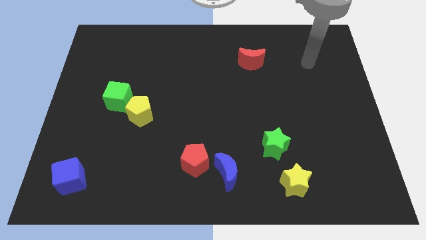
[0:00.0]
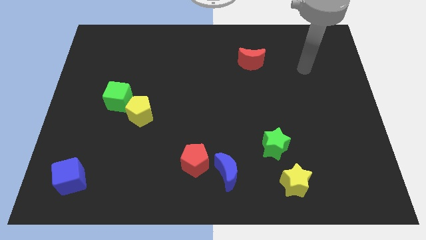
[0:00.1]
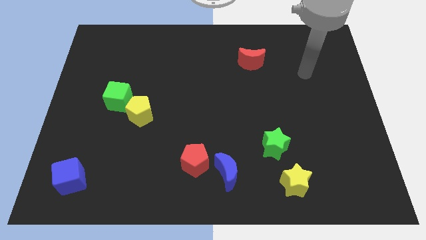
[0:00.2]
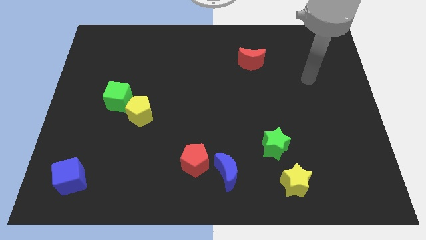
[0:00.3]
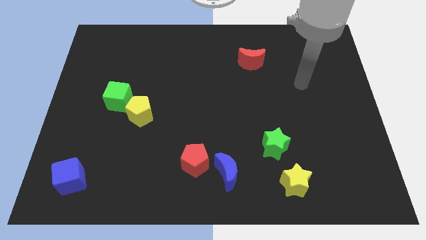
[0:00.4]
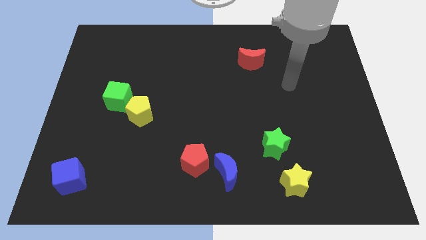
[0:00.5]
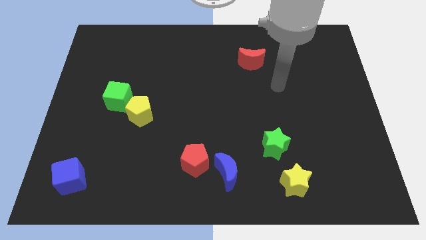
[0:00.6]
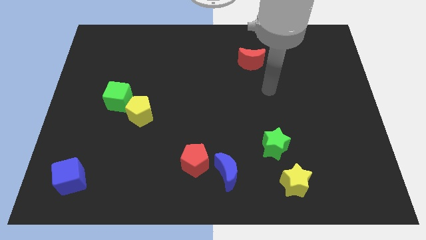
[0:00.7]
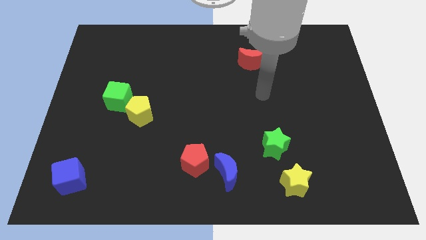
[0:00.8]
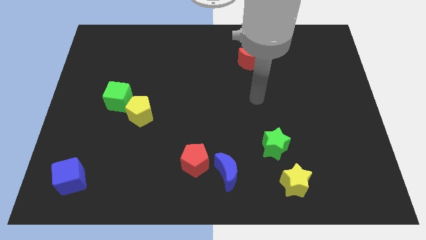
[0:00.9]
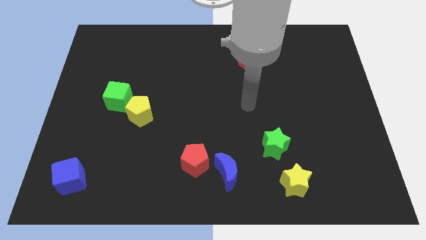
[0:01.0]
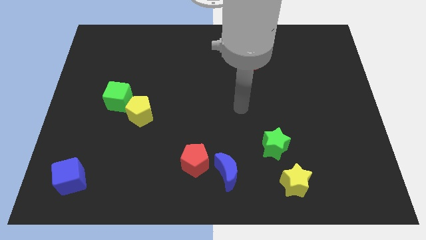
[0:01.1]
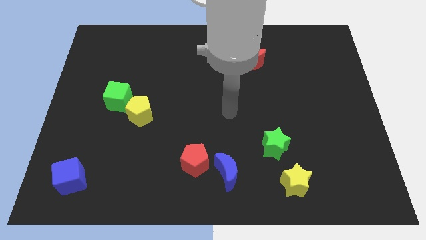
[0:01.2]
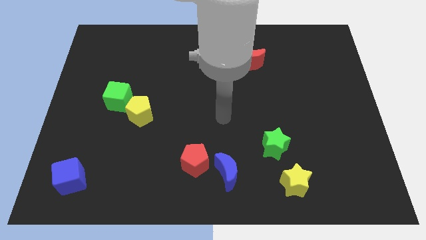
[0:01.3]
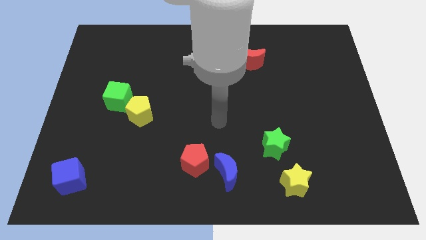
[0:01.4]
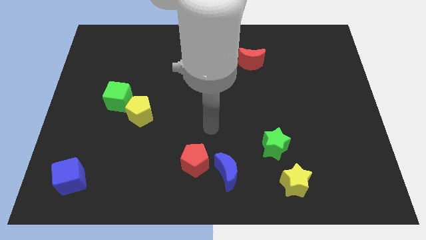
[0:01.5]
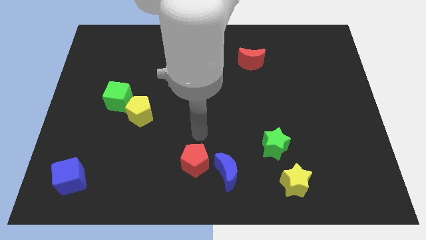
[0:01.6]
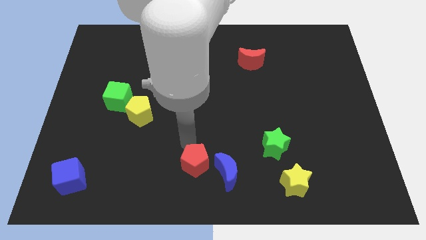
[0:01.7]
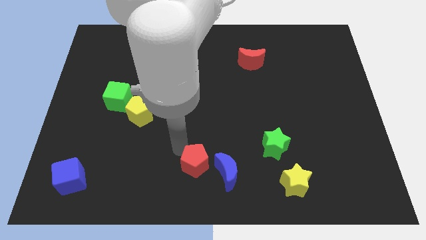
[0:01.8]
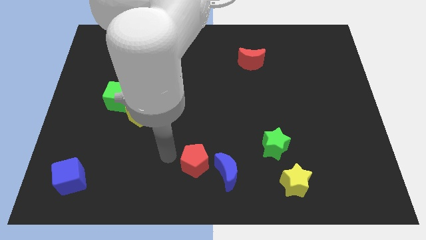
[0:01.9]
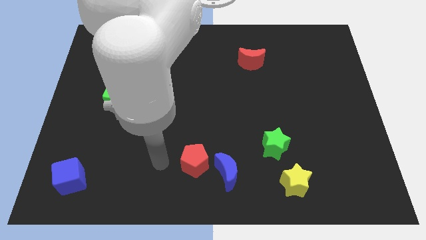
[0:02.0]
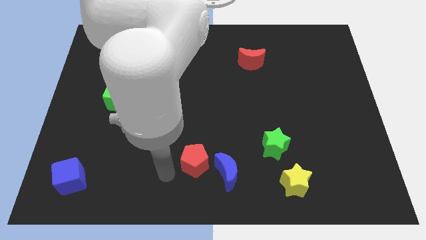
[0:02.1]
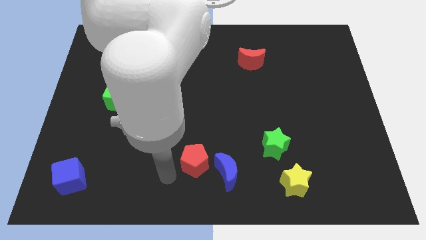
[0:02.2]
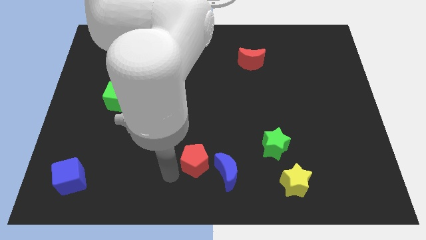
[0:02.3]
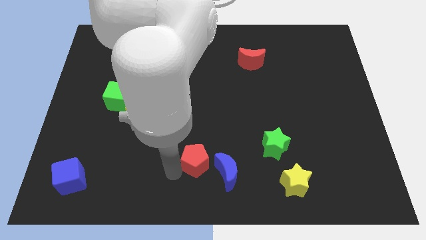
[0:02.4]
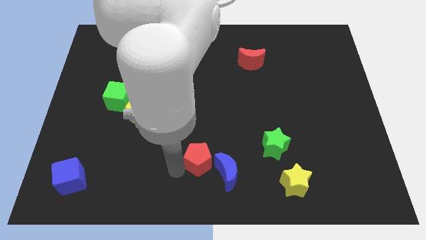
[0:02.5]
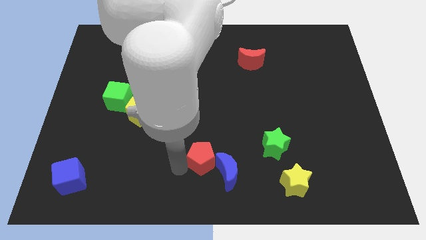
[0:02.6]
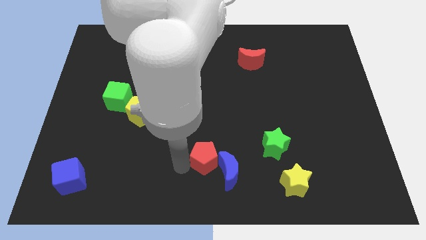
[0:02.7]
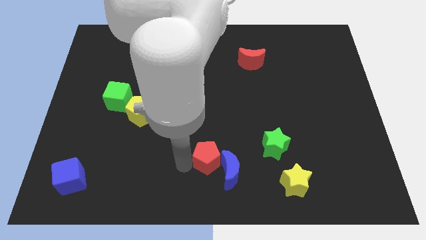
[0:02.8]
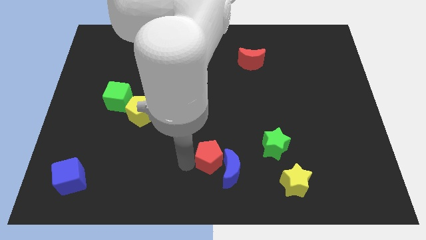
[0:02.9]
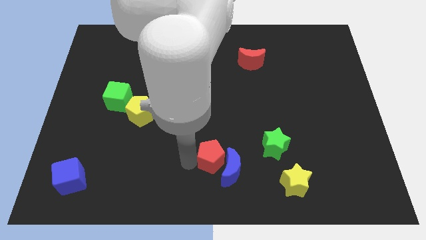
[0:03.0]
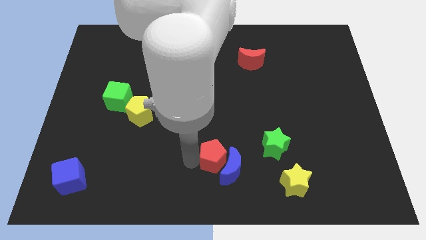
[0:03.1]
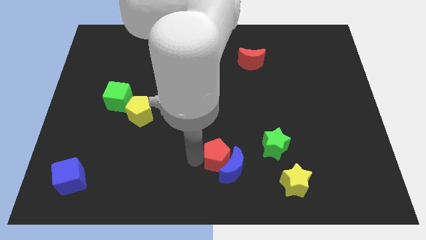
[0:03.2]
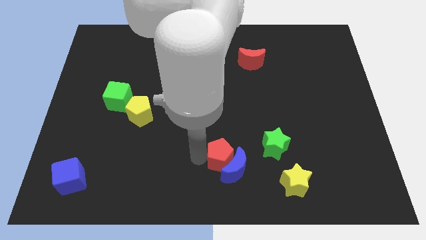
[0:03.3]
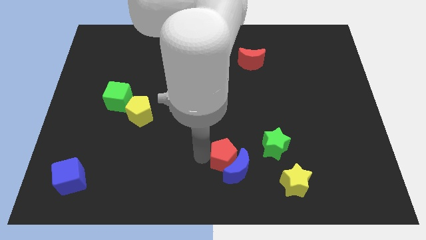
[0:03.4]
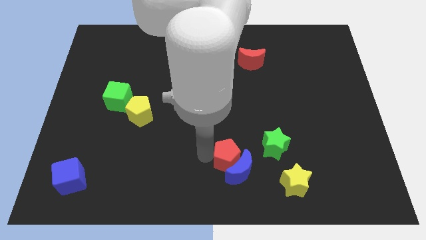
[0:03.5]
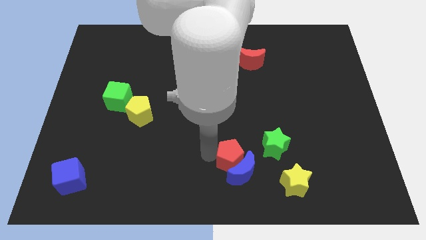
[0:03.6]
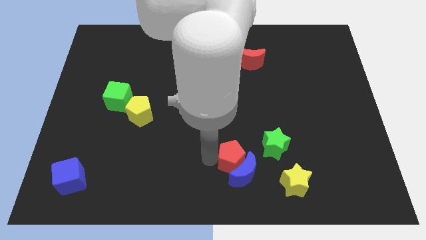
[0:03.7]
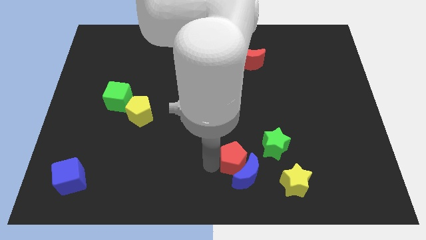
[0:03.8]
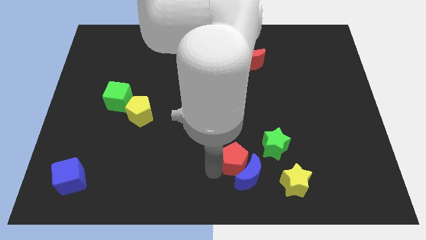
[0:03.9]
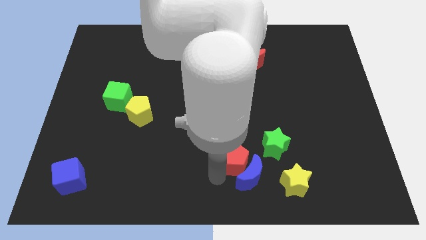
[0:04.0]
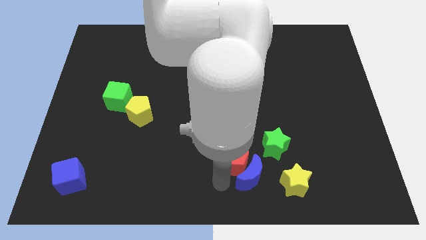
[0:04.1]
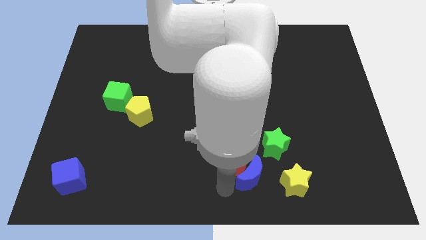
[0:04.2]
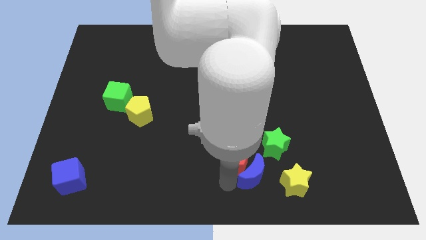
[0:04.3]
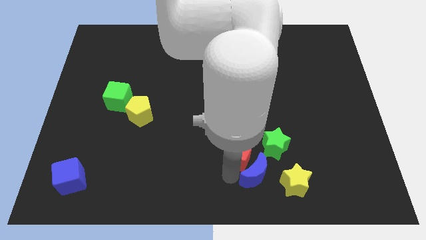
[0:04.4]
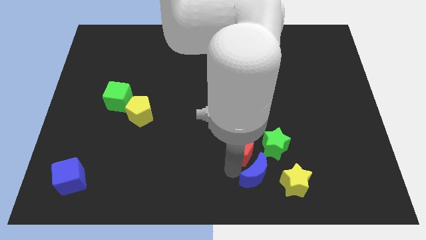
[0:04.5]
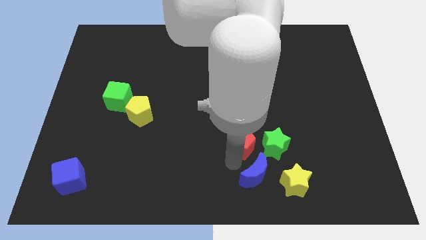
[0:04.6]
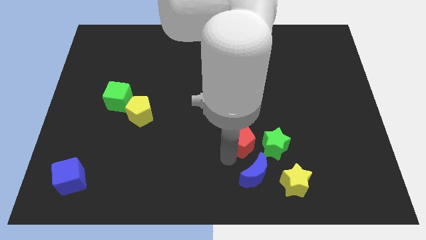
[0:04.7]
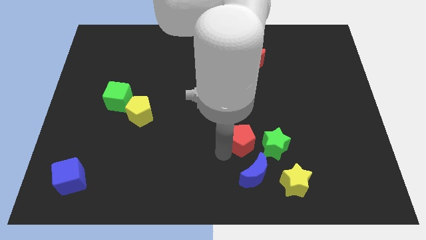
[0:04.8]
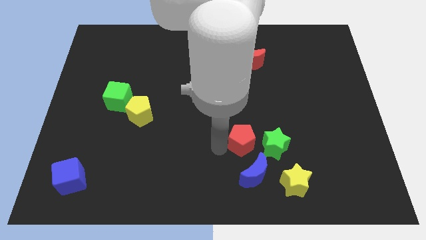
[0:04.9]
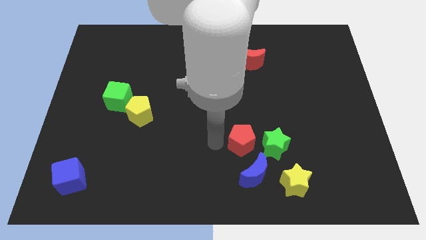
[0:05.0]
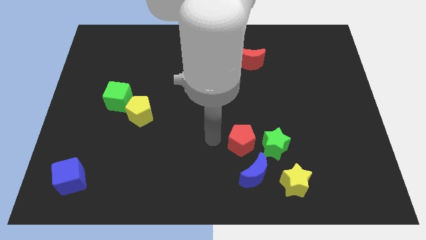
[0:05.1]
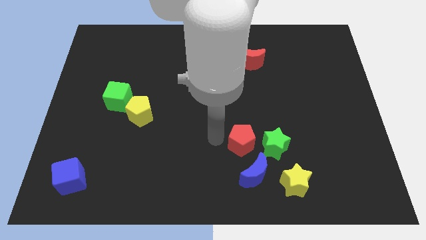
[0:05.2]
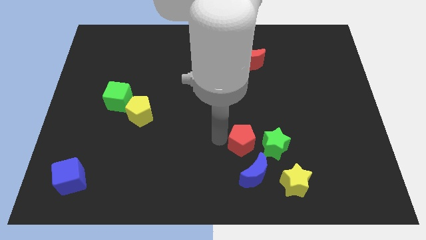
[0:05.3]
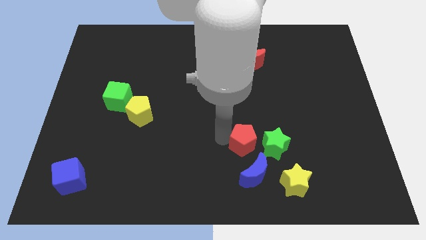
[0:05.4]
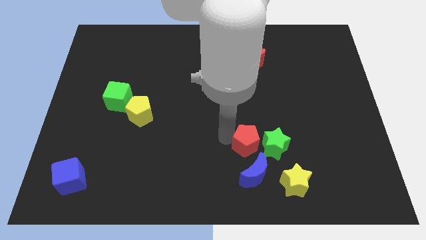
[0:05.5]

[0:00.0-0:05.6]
push the red pentagon close to the green star

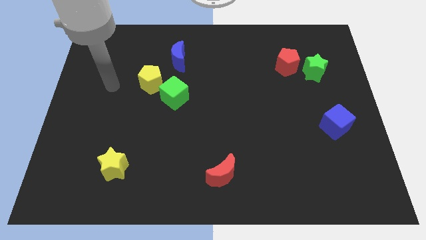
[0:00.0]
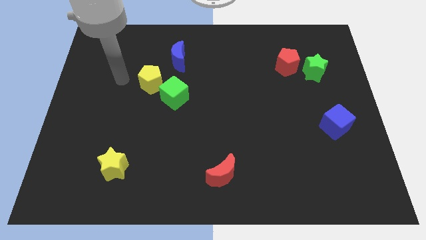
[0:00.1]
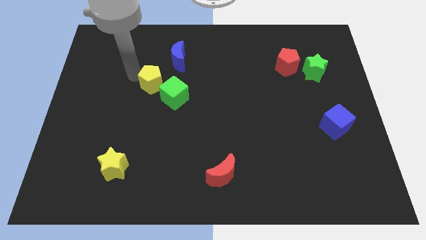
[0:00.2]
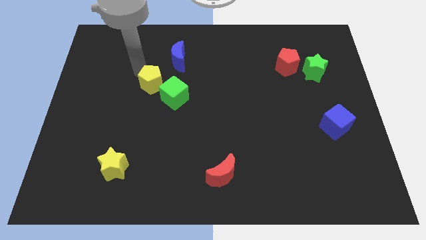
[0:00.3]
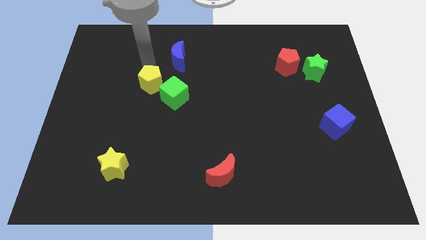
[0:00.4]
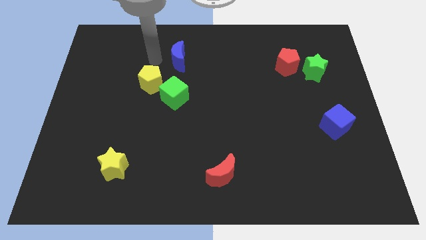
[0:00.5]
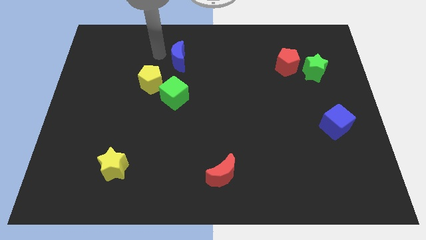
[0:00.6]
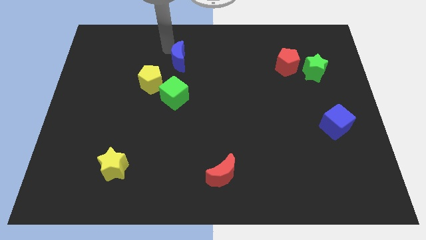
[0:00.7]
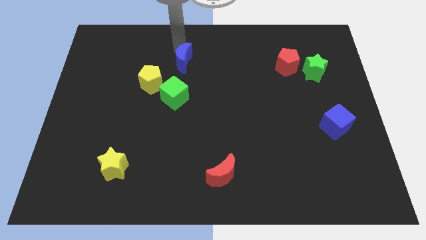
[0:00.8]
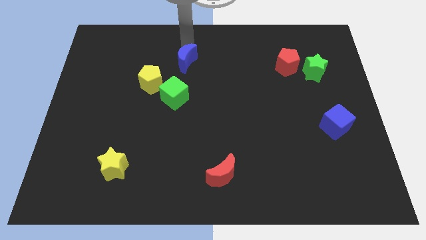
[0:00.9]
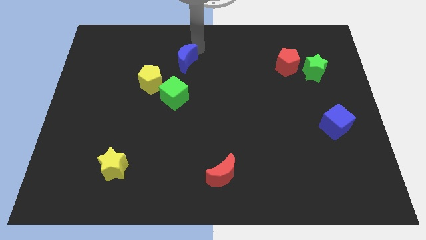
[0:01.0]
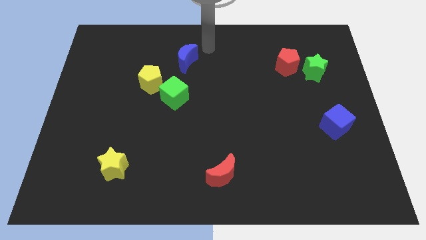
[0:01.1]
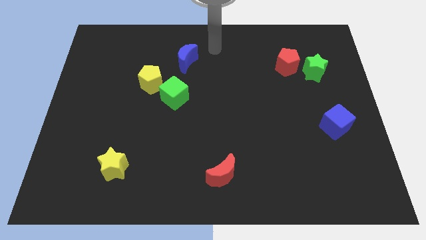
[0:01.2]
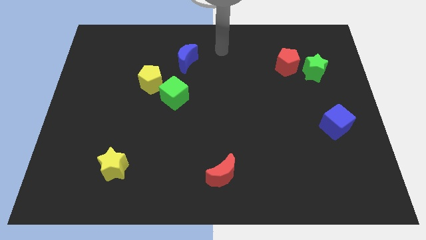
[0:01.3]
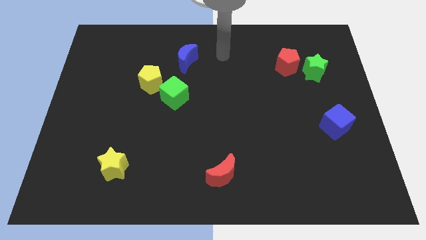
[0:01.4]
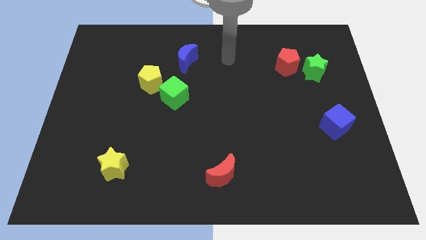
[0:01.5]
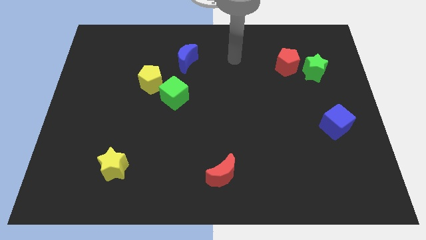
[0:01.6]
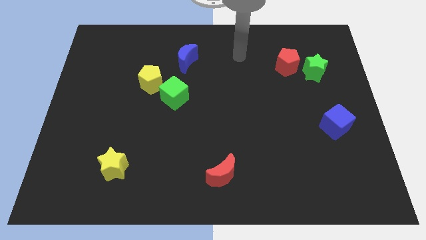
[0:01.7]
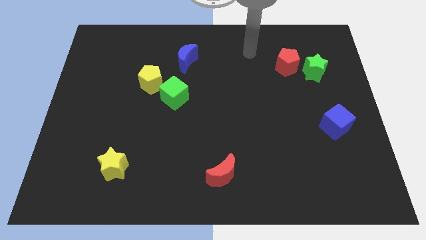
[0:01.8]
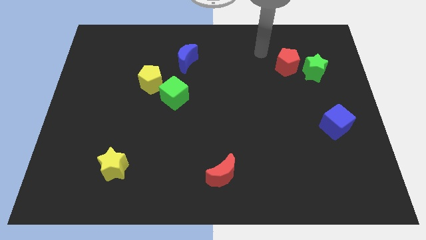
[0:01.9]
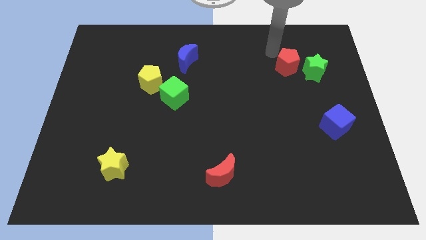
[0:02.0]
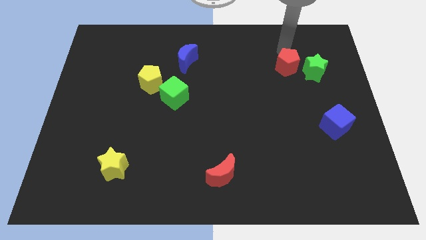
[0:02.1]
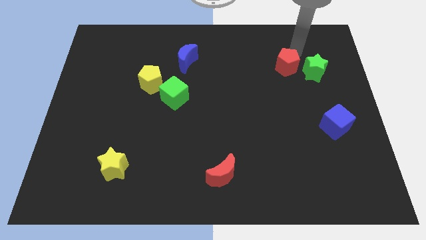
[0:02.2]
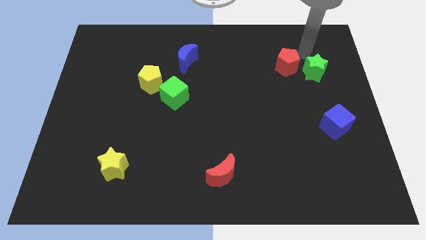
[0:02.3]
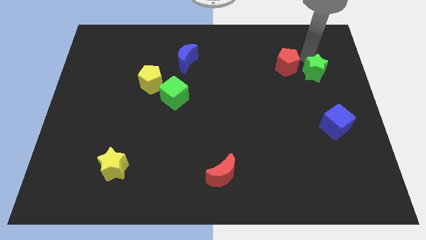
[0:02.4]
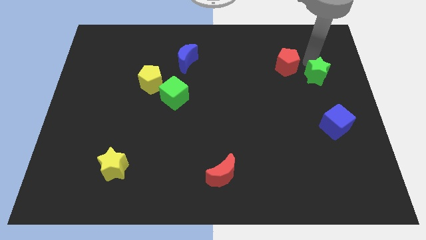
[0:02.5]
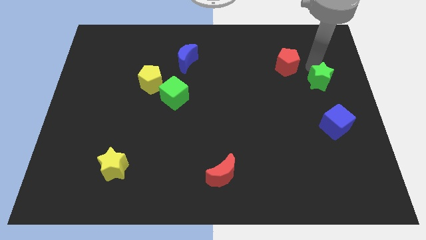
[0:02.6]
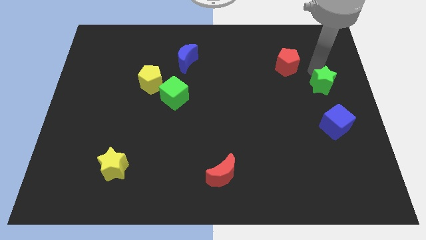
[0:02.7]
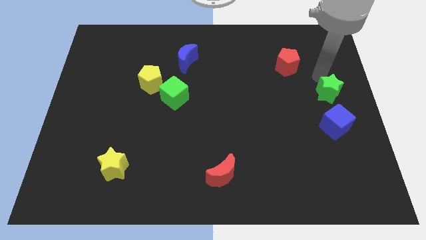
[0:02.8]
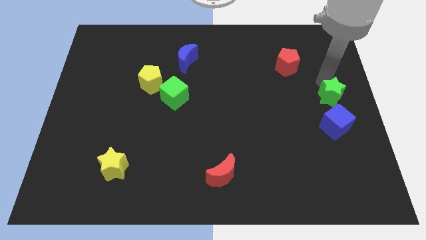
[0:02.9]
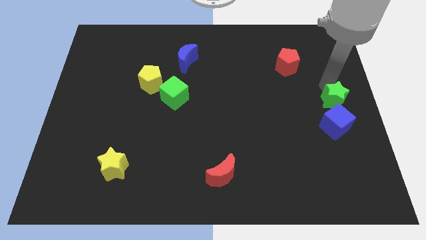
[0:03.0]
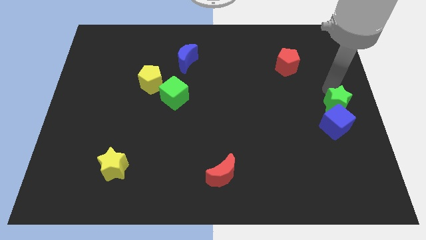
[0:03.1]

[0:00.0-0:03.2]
push the green star next to the blue cube
